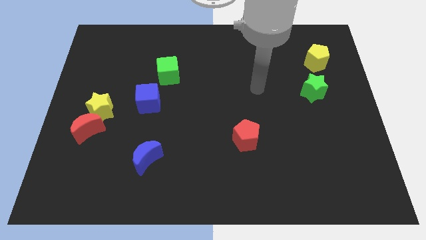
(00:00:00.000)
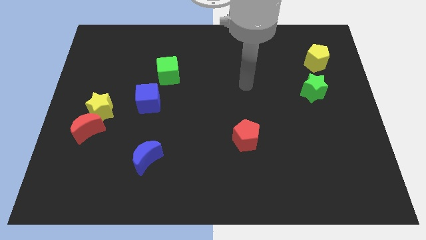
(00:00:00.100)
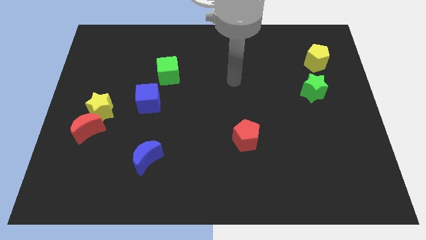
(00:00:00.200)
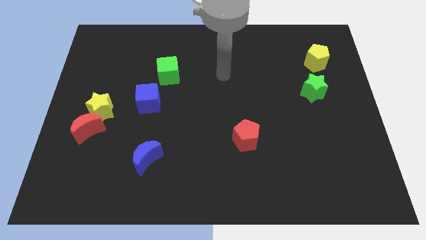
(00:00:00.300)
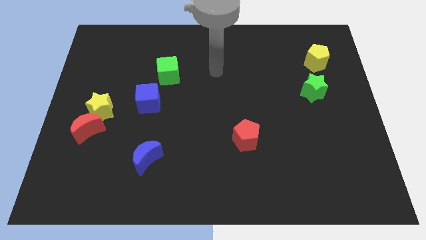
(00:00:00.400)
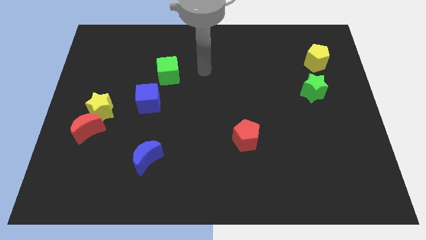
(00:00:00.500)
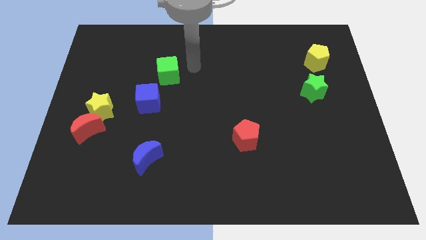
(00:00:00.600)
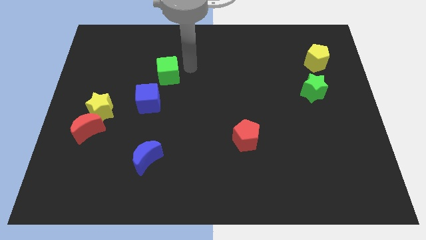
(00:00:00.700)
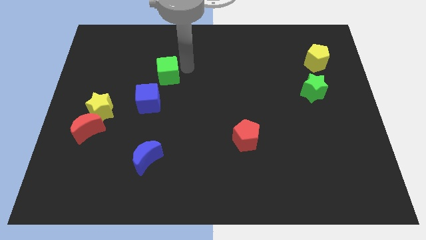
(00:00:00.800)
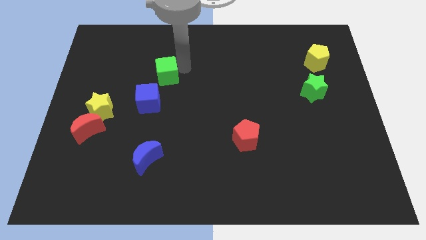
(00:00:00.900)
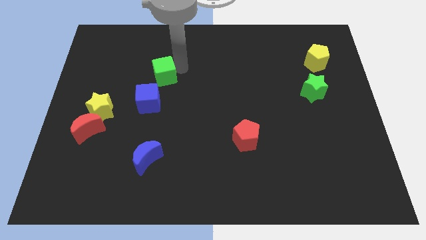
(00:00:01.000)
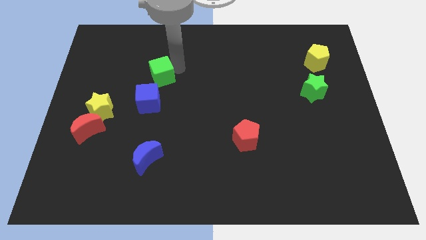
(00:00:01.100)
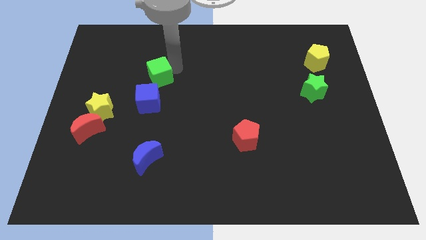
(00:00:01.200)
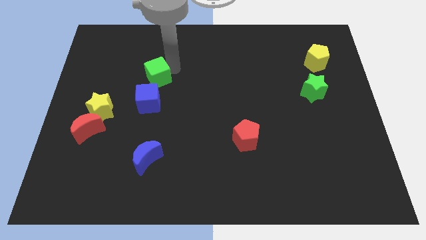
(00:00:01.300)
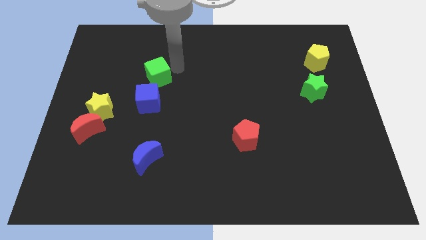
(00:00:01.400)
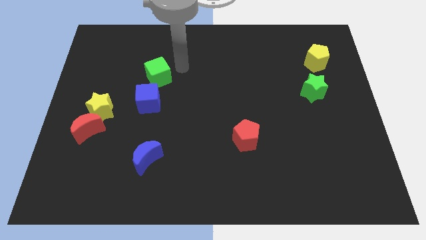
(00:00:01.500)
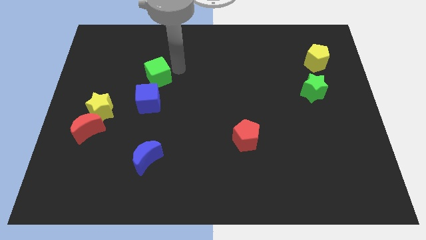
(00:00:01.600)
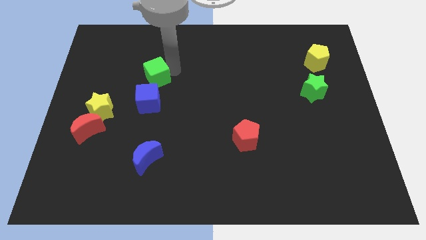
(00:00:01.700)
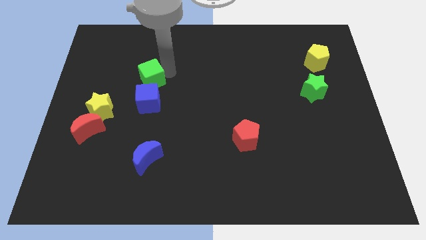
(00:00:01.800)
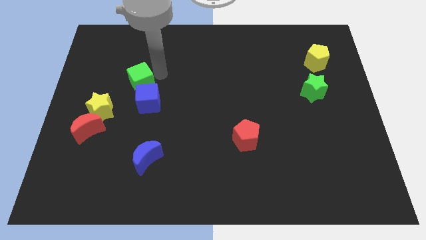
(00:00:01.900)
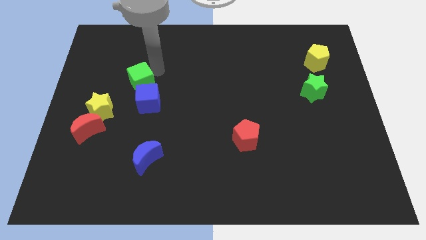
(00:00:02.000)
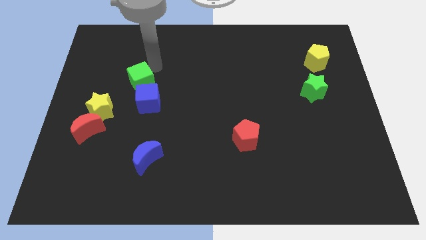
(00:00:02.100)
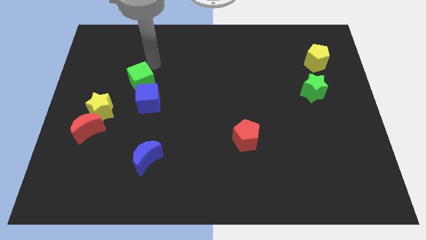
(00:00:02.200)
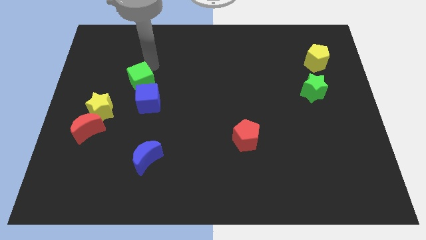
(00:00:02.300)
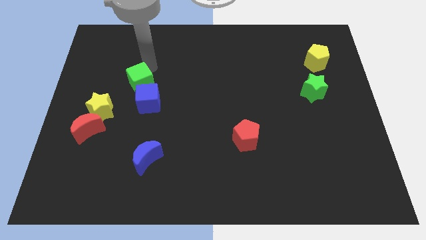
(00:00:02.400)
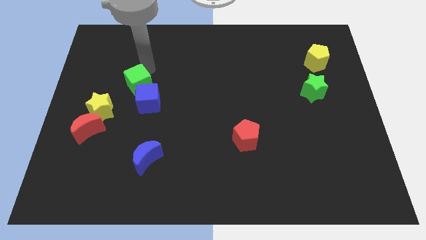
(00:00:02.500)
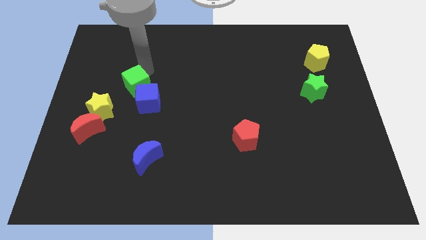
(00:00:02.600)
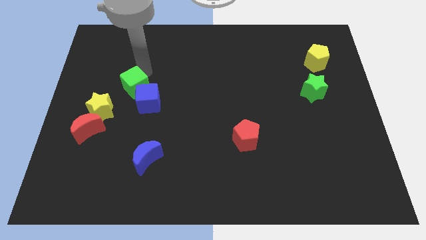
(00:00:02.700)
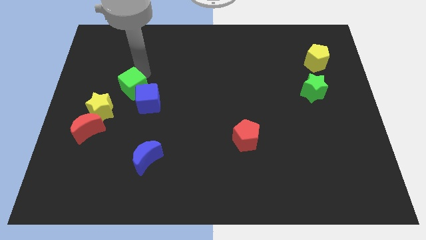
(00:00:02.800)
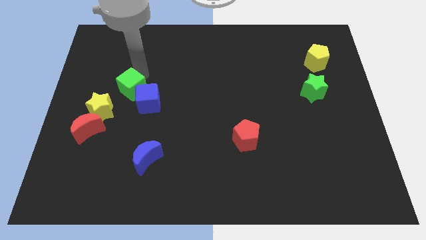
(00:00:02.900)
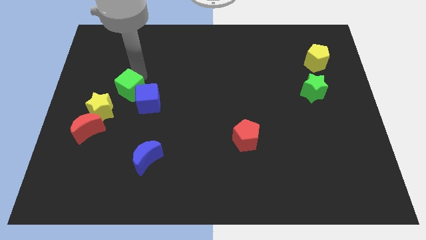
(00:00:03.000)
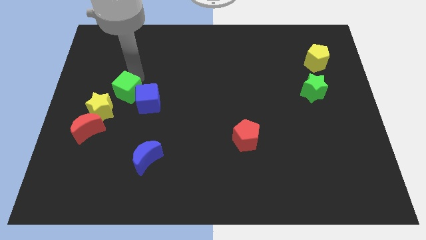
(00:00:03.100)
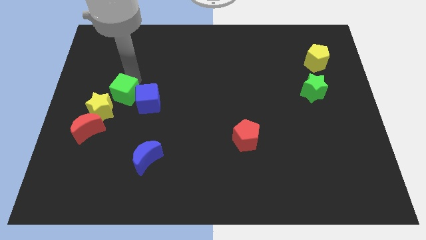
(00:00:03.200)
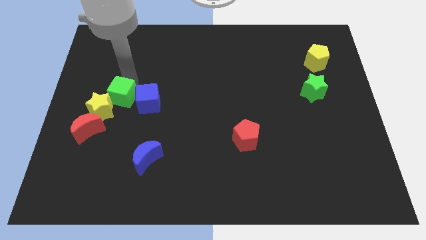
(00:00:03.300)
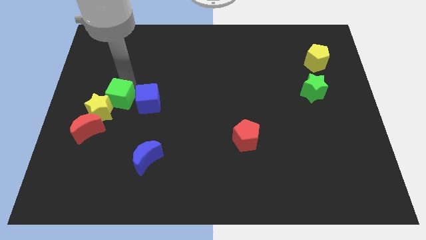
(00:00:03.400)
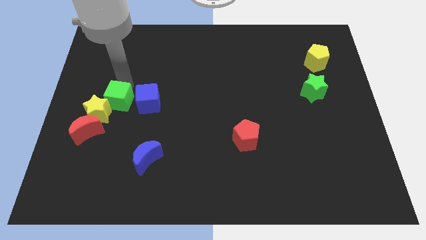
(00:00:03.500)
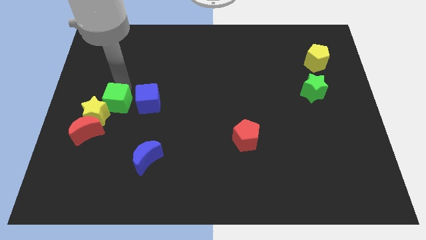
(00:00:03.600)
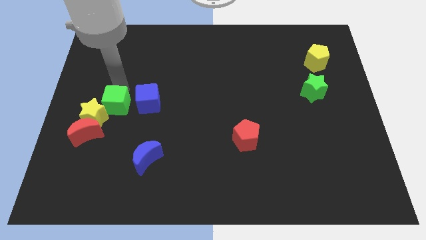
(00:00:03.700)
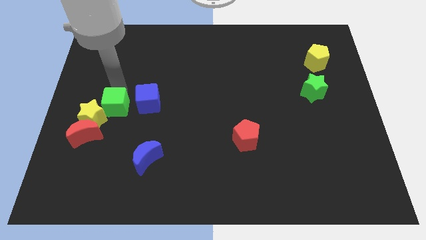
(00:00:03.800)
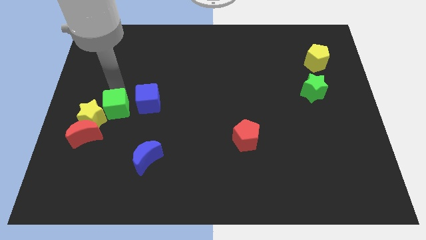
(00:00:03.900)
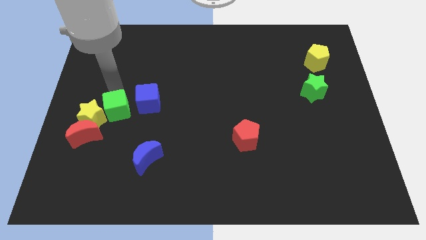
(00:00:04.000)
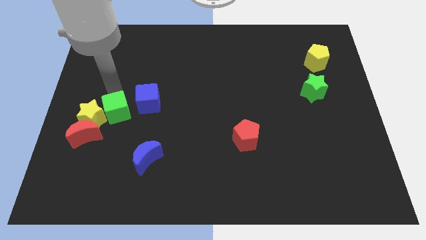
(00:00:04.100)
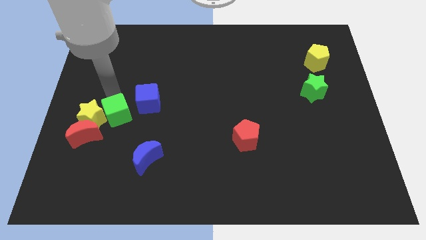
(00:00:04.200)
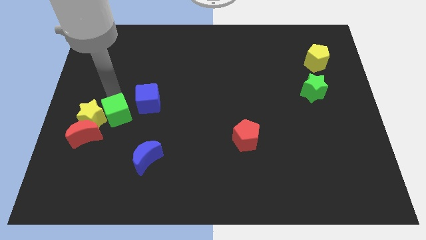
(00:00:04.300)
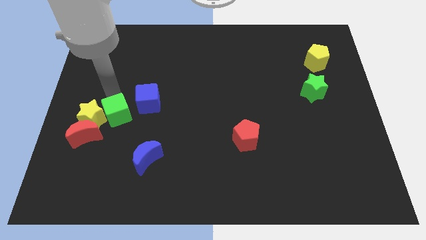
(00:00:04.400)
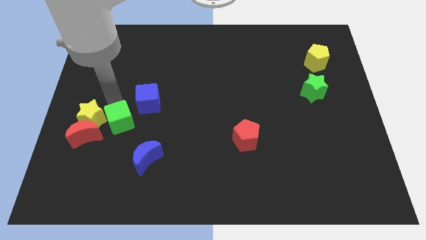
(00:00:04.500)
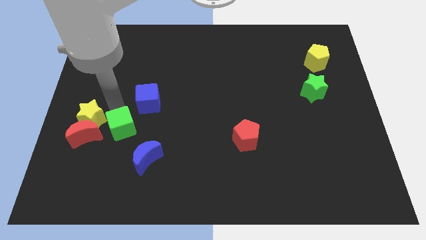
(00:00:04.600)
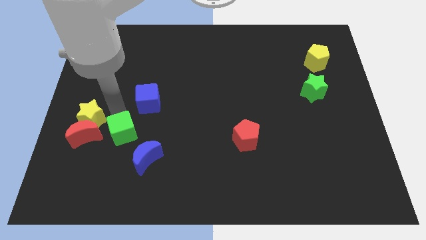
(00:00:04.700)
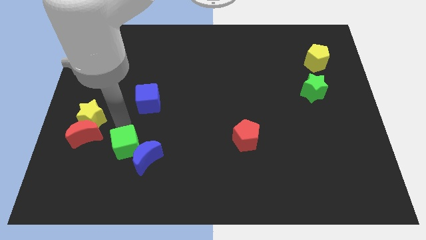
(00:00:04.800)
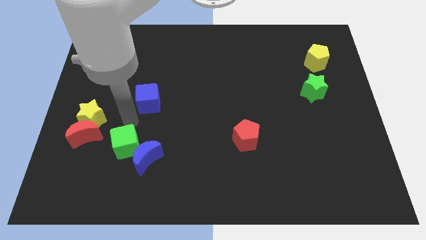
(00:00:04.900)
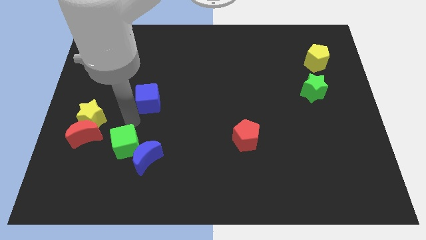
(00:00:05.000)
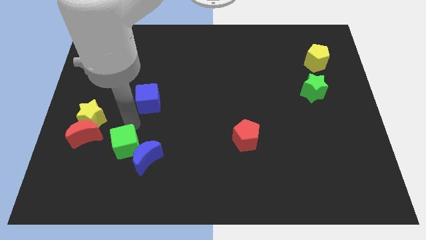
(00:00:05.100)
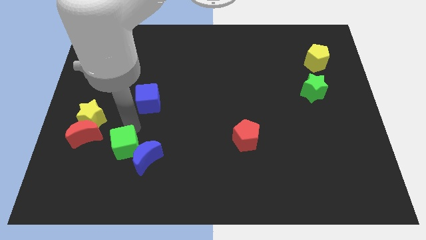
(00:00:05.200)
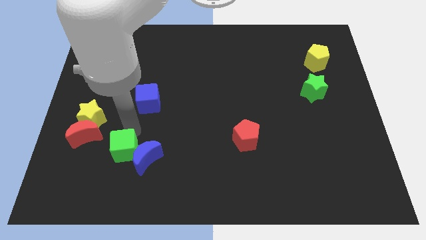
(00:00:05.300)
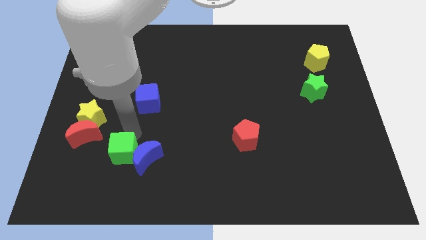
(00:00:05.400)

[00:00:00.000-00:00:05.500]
slide the green cube diagonally down and to the left of the blue moon
